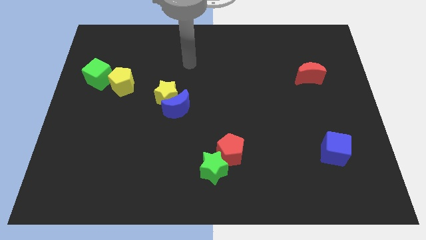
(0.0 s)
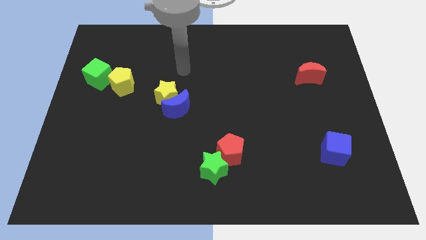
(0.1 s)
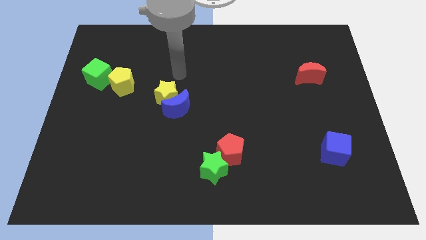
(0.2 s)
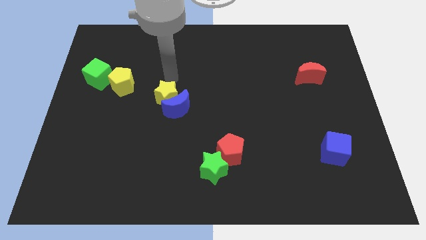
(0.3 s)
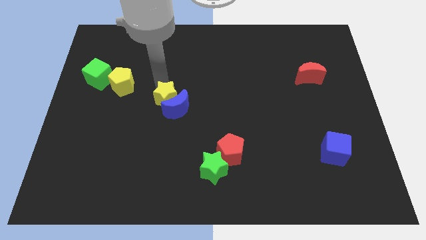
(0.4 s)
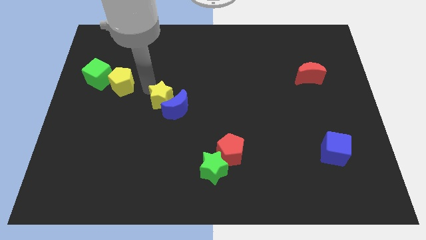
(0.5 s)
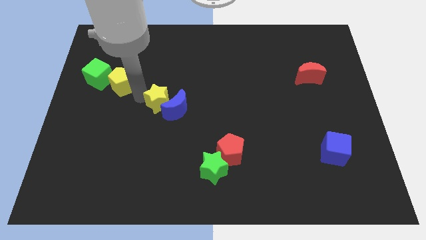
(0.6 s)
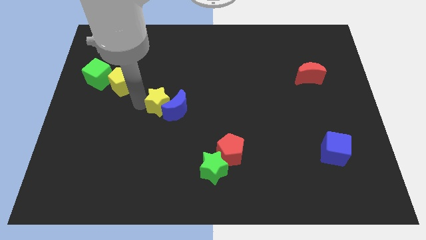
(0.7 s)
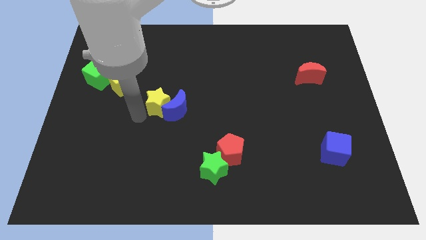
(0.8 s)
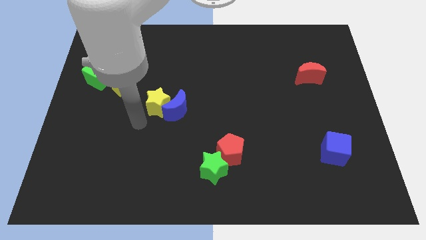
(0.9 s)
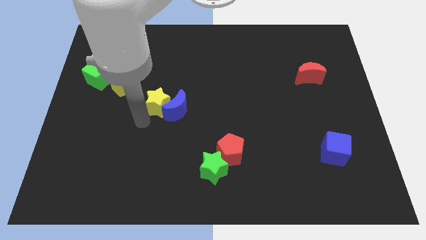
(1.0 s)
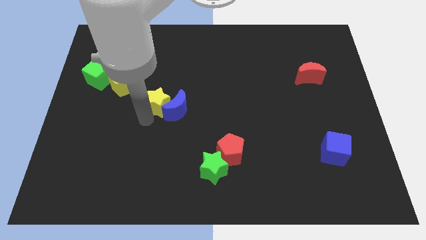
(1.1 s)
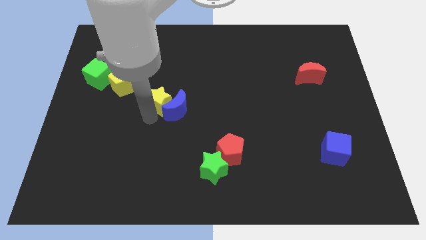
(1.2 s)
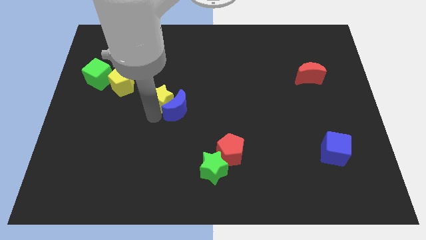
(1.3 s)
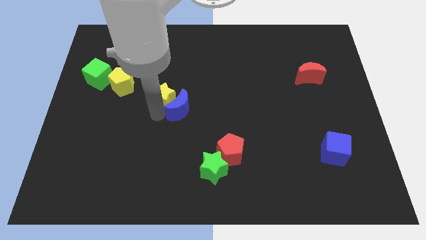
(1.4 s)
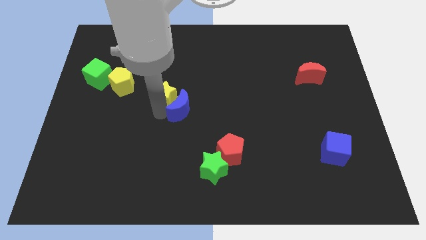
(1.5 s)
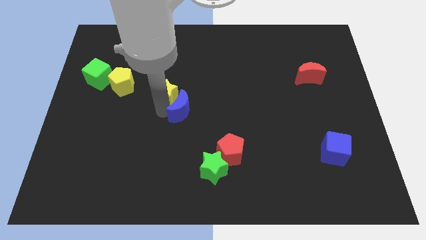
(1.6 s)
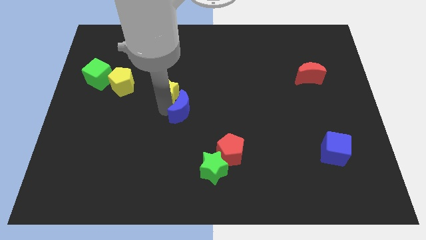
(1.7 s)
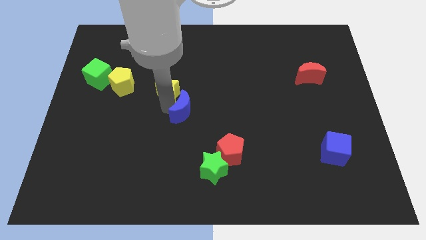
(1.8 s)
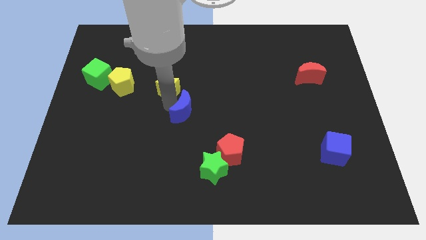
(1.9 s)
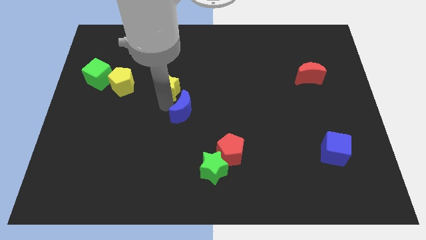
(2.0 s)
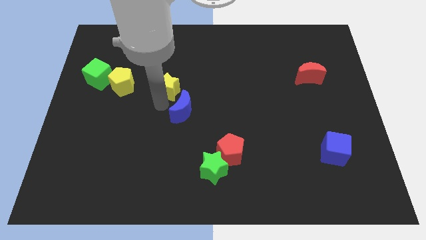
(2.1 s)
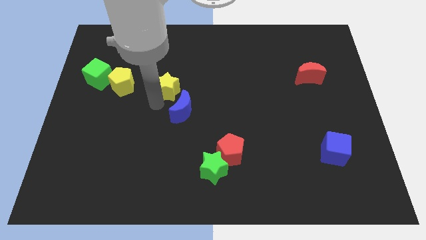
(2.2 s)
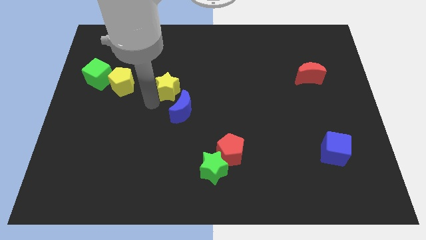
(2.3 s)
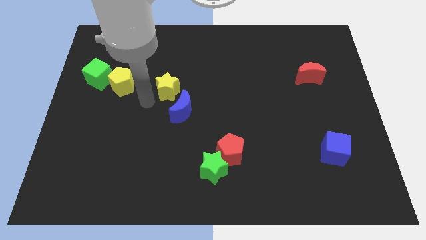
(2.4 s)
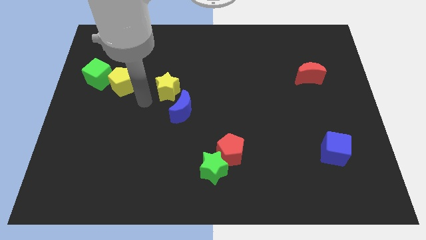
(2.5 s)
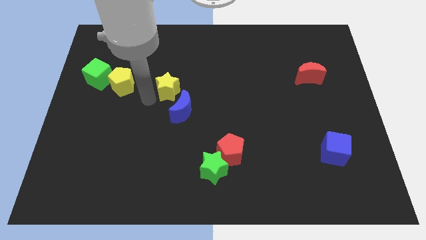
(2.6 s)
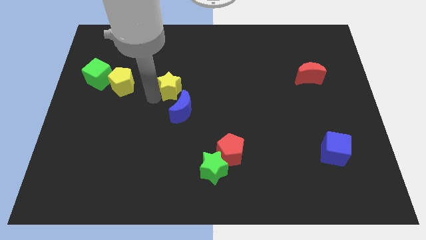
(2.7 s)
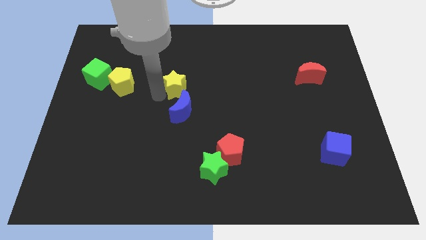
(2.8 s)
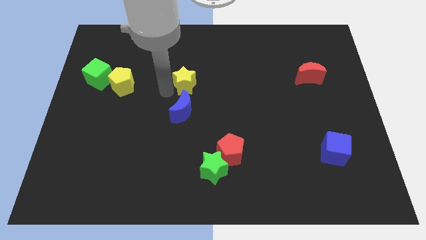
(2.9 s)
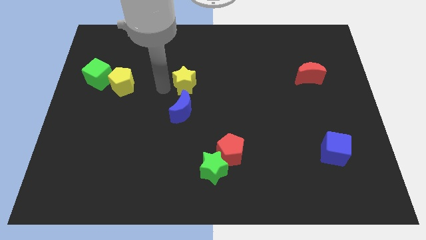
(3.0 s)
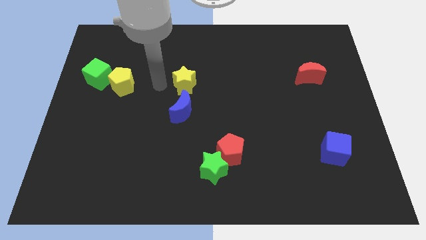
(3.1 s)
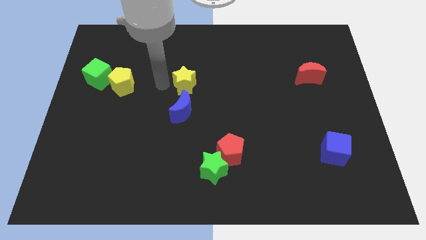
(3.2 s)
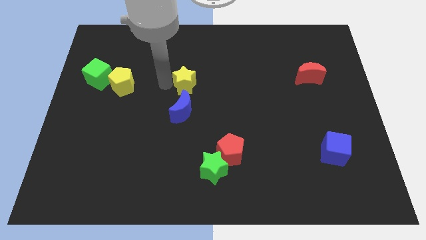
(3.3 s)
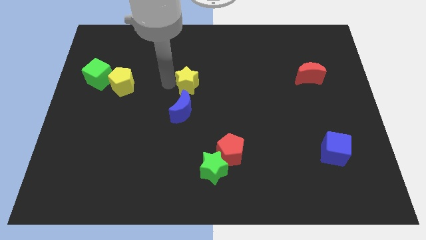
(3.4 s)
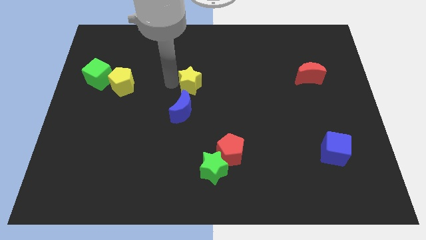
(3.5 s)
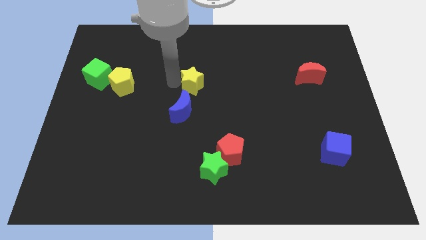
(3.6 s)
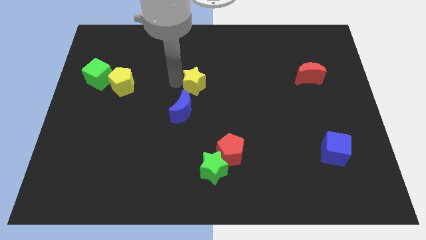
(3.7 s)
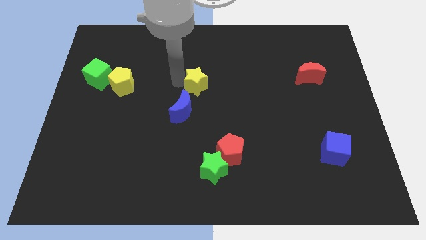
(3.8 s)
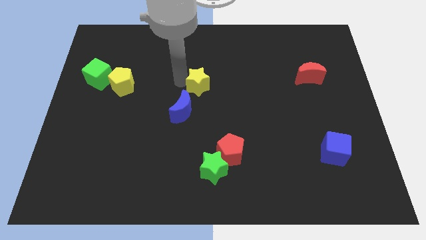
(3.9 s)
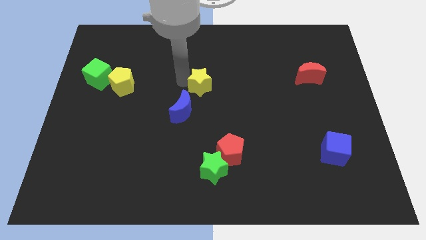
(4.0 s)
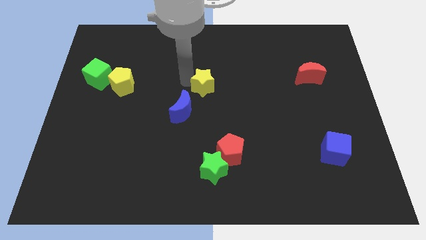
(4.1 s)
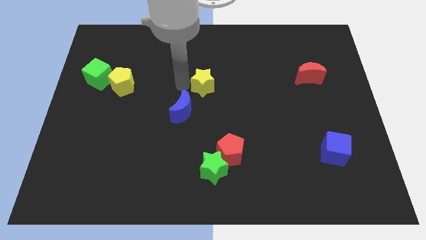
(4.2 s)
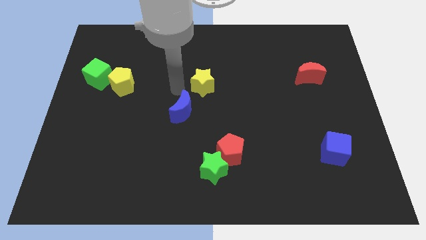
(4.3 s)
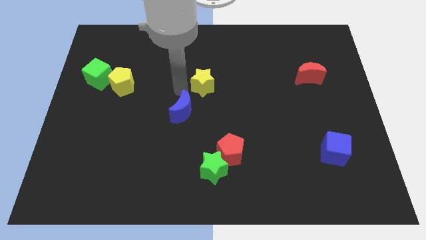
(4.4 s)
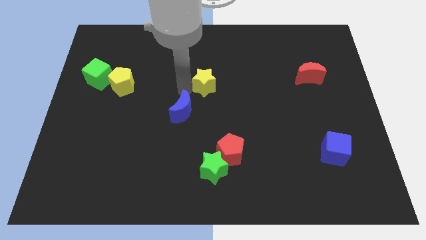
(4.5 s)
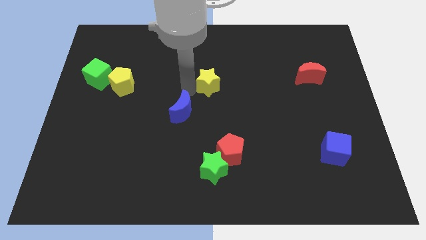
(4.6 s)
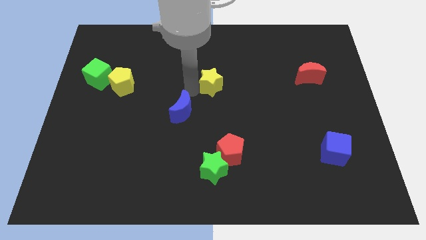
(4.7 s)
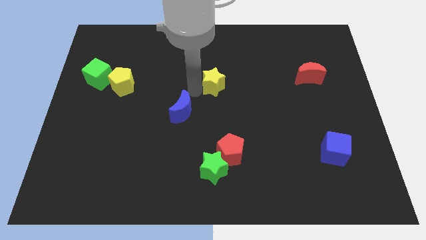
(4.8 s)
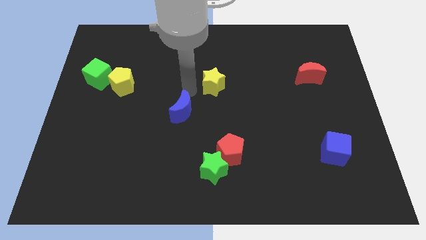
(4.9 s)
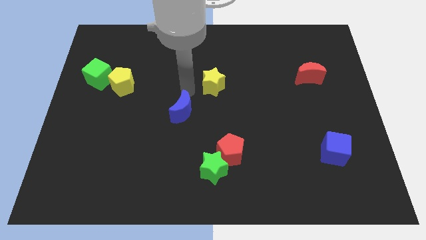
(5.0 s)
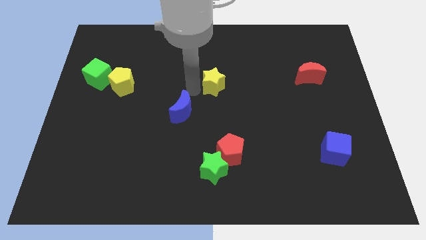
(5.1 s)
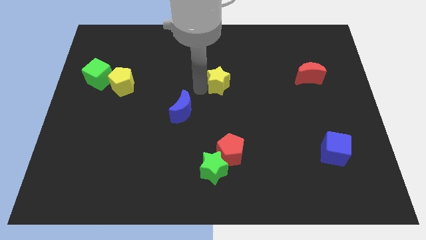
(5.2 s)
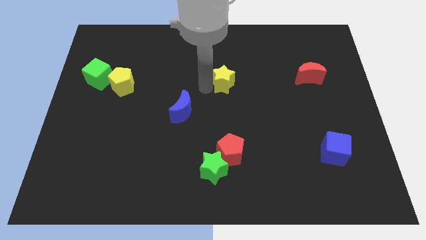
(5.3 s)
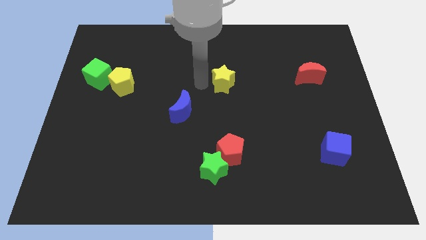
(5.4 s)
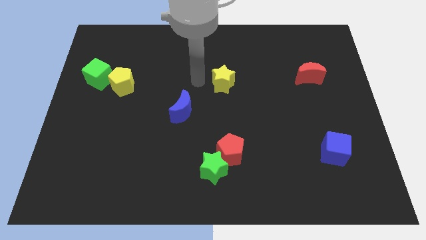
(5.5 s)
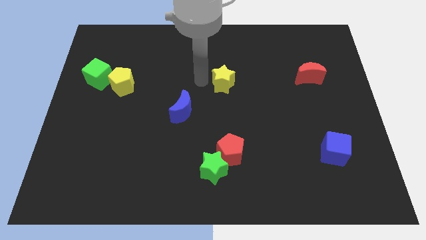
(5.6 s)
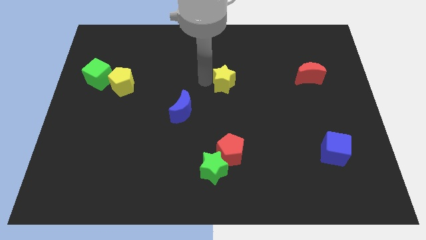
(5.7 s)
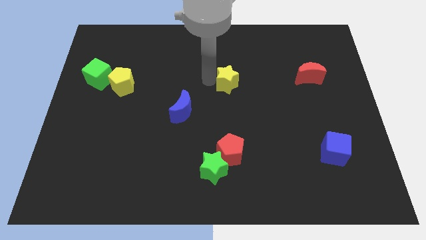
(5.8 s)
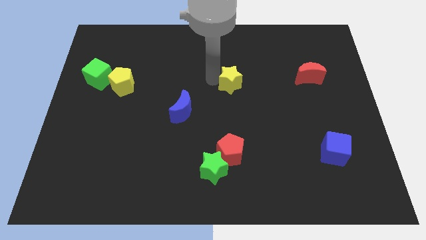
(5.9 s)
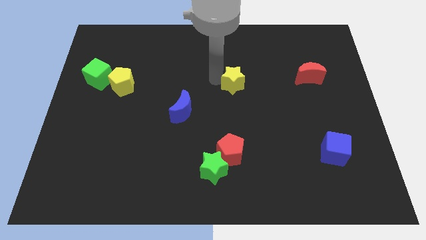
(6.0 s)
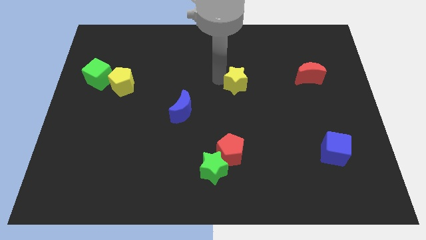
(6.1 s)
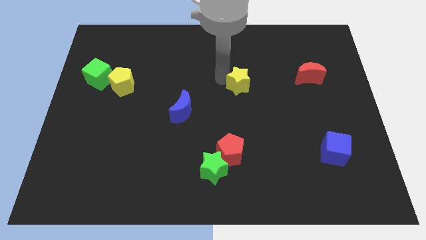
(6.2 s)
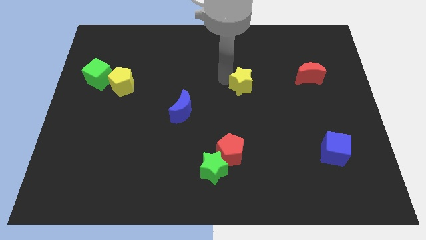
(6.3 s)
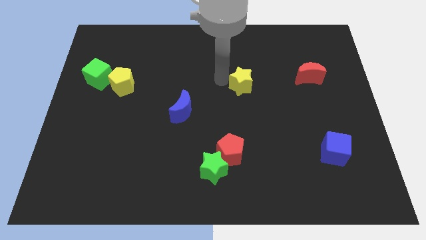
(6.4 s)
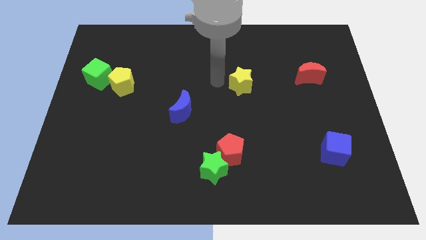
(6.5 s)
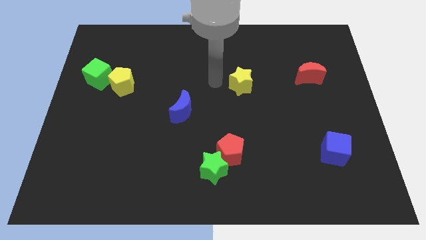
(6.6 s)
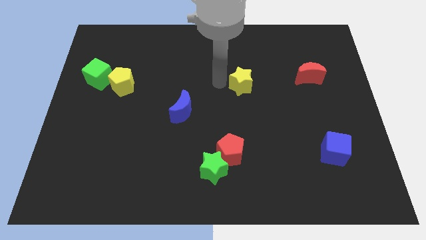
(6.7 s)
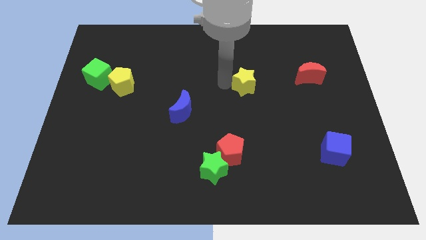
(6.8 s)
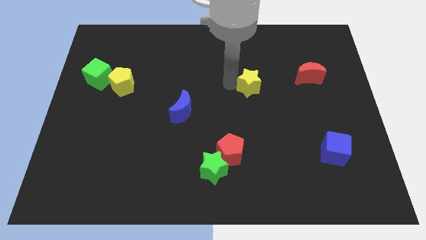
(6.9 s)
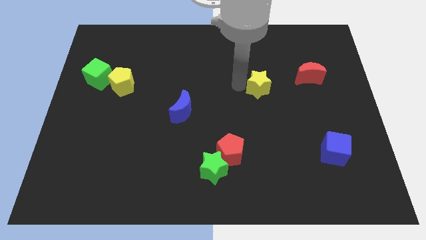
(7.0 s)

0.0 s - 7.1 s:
move the yellow star to the right

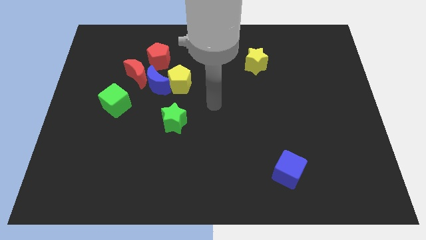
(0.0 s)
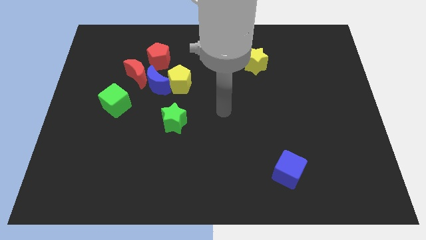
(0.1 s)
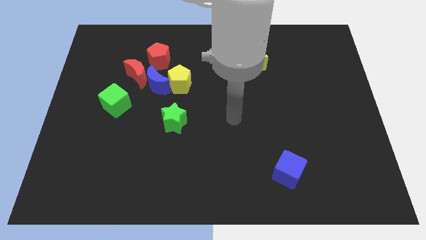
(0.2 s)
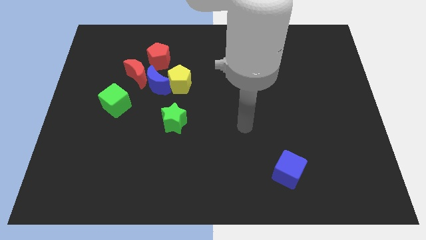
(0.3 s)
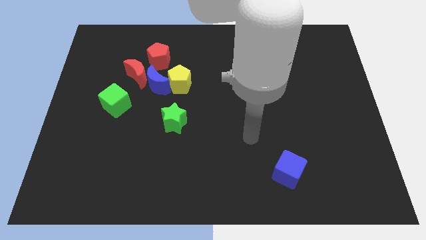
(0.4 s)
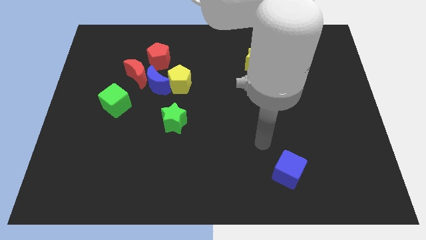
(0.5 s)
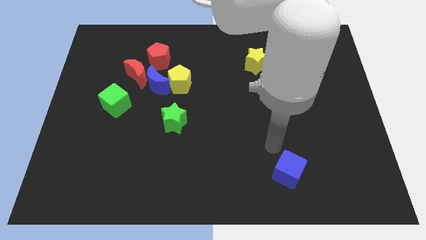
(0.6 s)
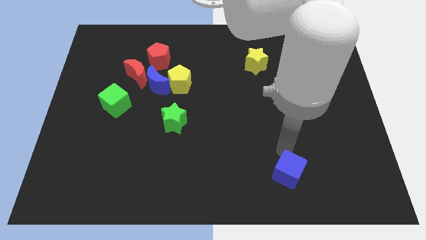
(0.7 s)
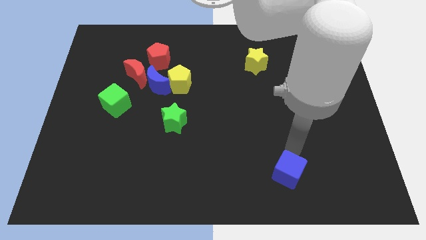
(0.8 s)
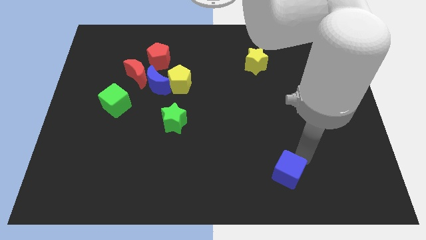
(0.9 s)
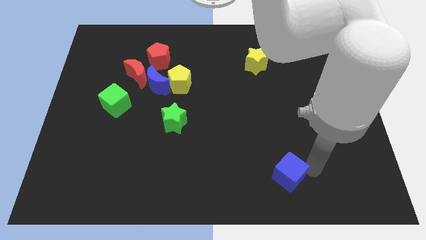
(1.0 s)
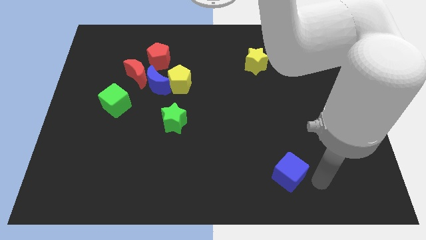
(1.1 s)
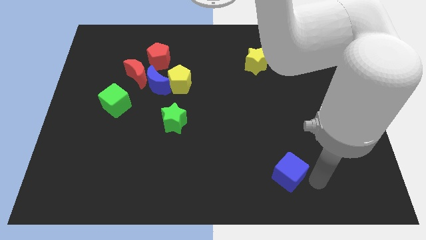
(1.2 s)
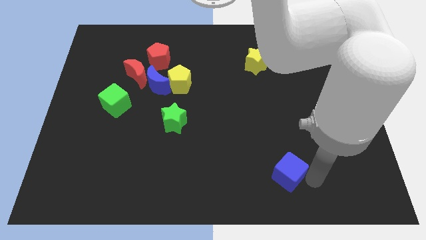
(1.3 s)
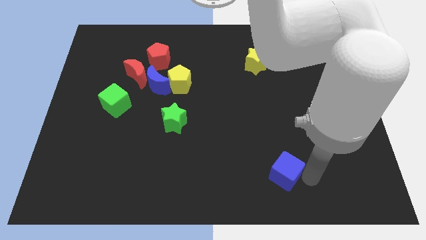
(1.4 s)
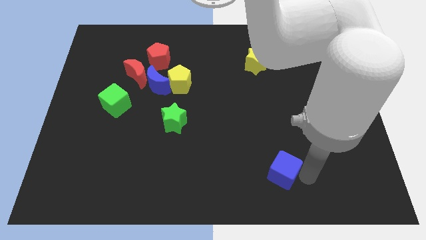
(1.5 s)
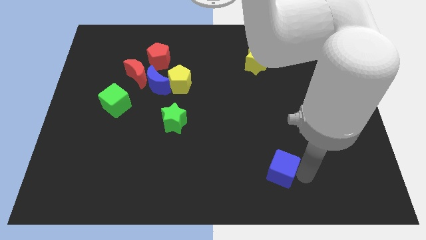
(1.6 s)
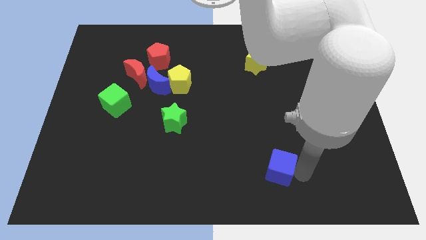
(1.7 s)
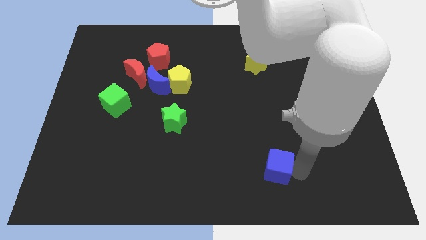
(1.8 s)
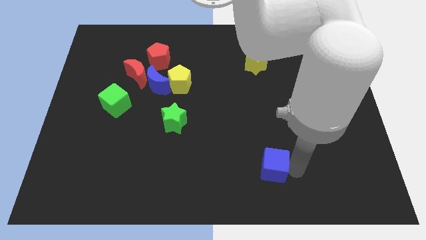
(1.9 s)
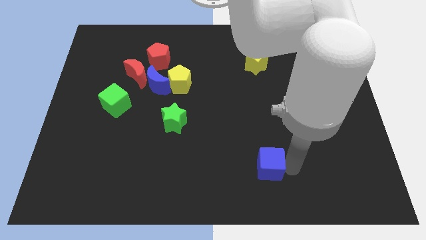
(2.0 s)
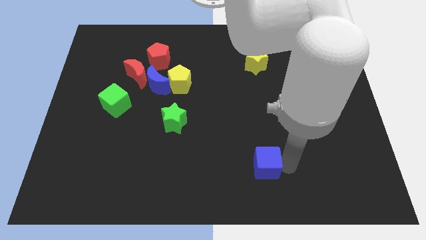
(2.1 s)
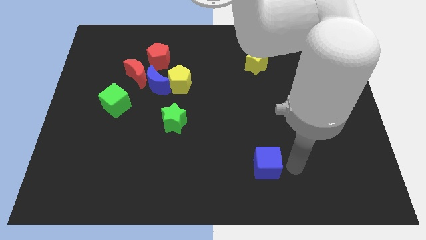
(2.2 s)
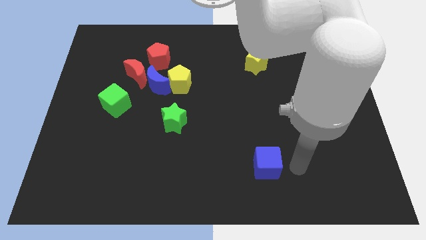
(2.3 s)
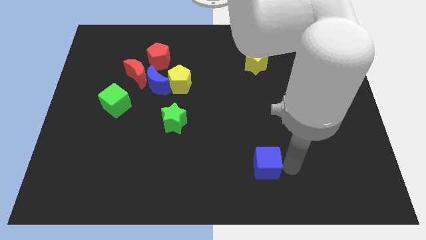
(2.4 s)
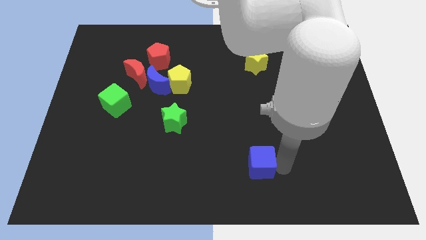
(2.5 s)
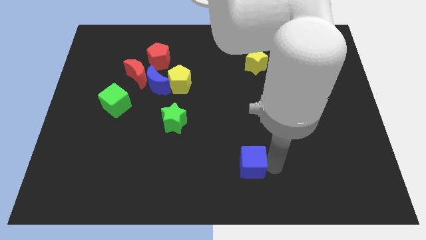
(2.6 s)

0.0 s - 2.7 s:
push the blue cube to the left somewhat
